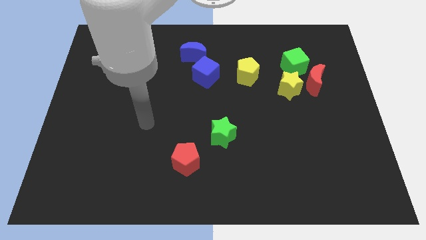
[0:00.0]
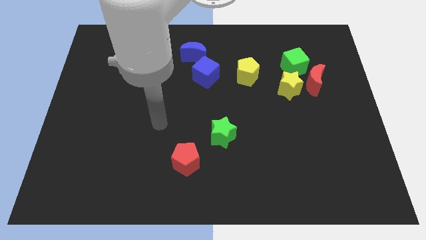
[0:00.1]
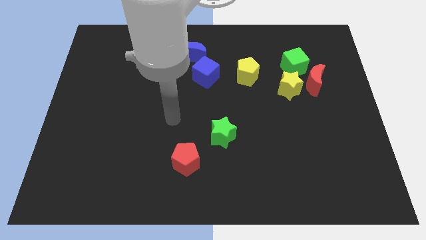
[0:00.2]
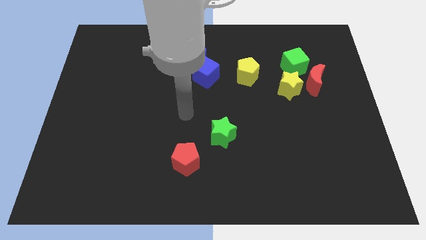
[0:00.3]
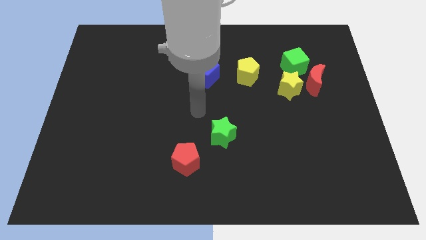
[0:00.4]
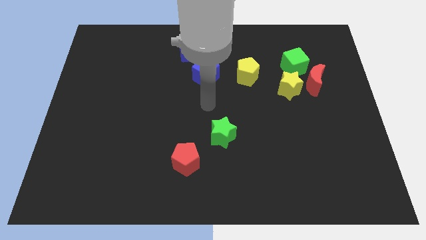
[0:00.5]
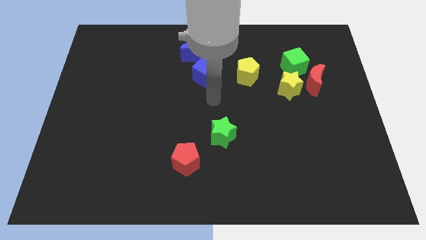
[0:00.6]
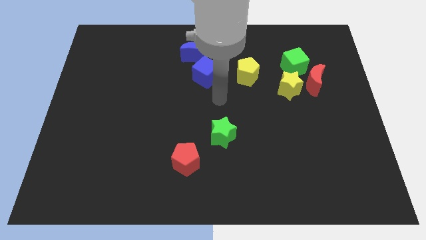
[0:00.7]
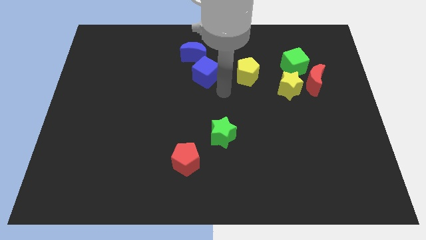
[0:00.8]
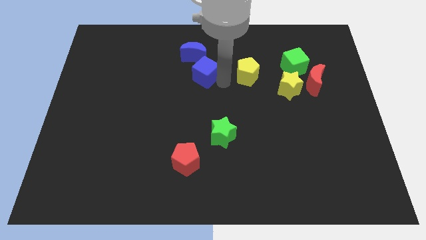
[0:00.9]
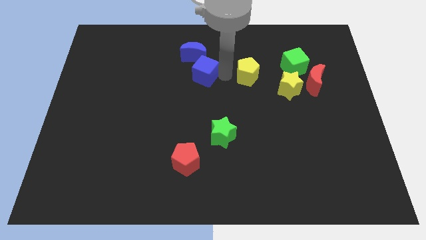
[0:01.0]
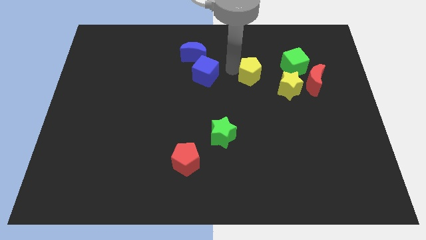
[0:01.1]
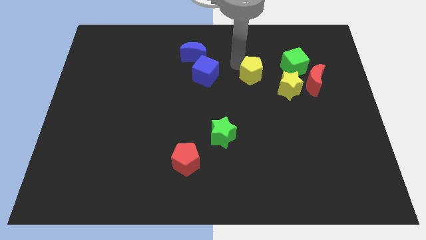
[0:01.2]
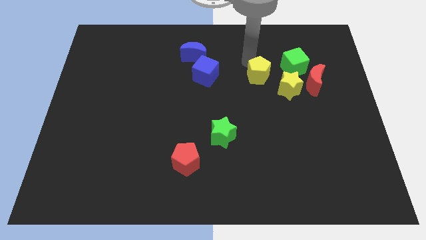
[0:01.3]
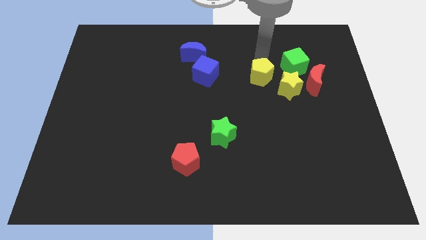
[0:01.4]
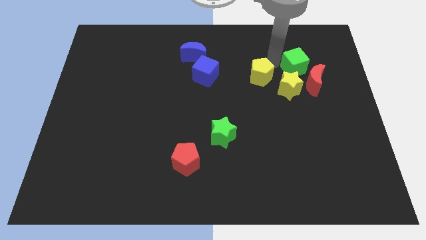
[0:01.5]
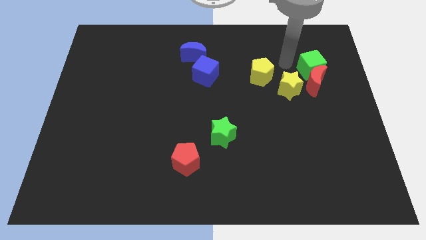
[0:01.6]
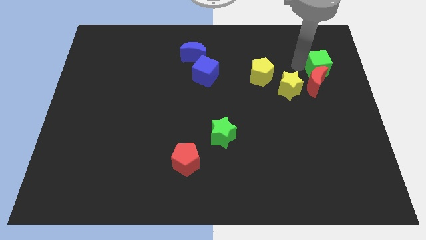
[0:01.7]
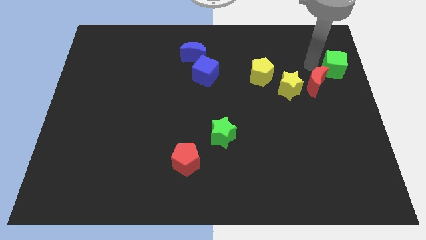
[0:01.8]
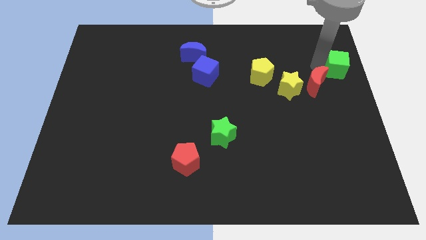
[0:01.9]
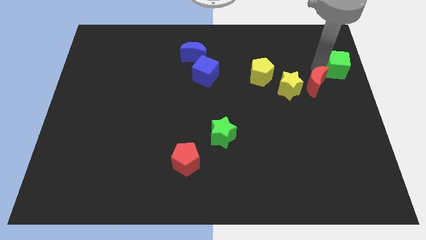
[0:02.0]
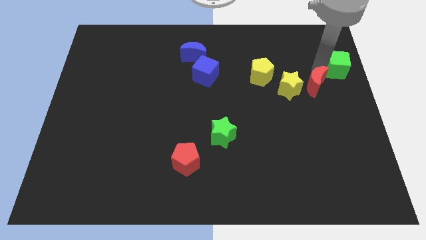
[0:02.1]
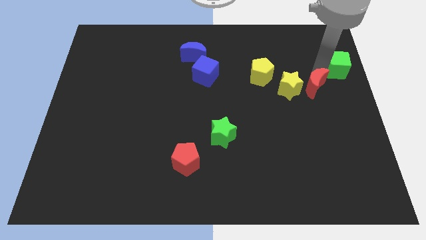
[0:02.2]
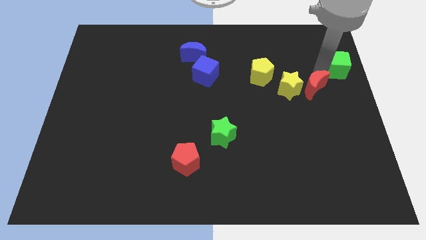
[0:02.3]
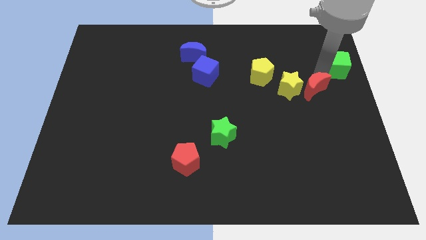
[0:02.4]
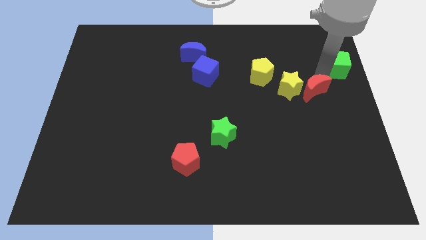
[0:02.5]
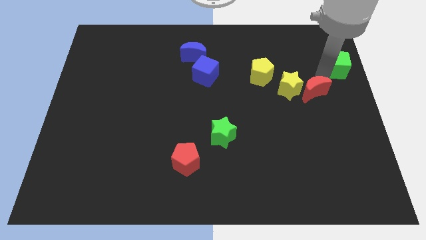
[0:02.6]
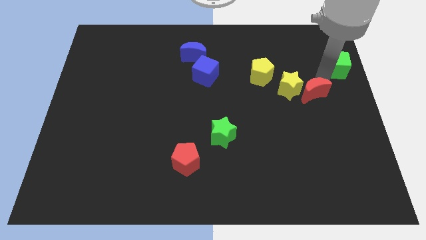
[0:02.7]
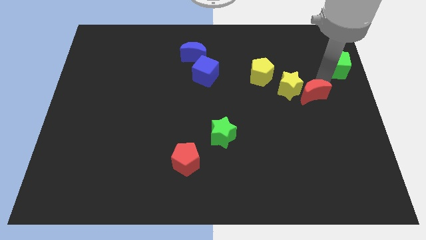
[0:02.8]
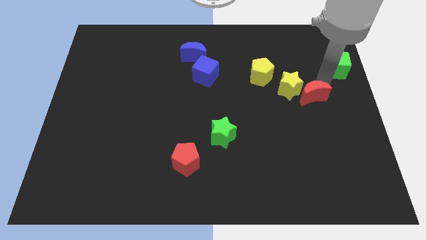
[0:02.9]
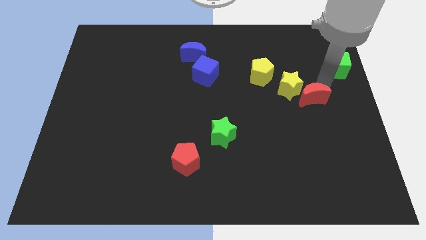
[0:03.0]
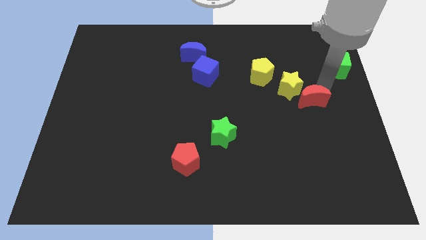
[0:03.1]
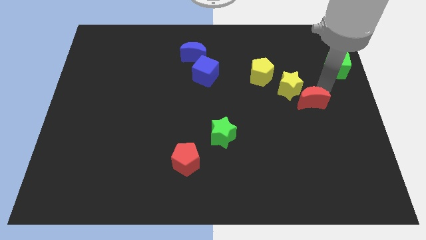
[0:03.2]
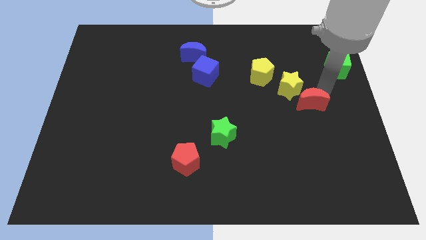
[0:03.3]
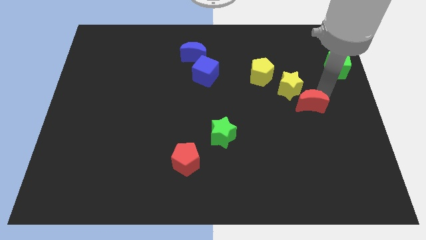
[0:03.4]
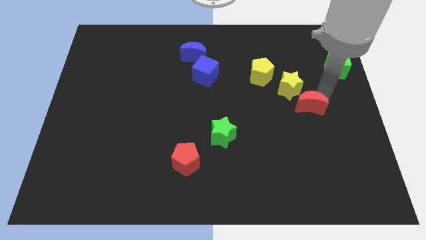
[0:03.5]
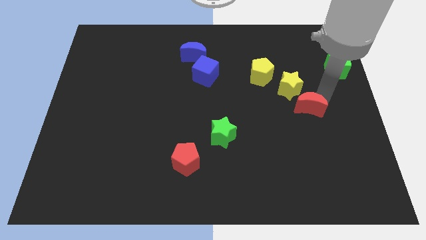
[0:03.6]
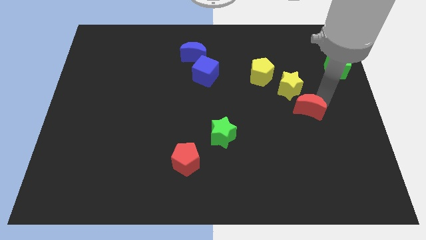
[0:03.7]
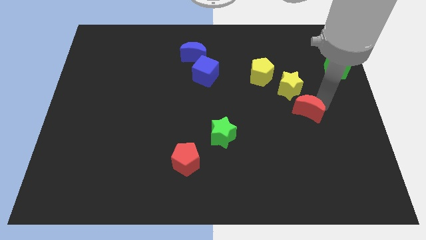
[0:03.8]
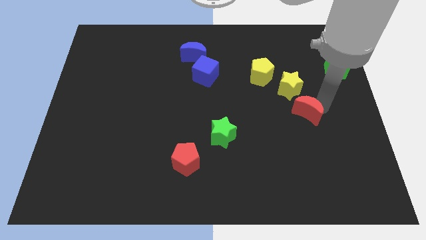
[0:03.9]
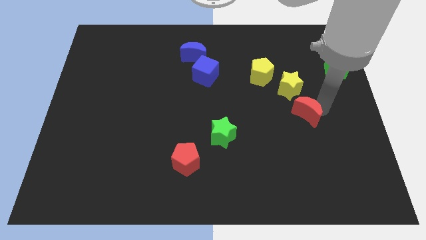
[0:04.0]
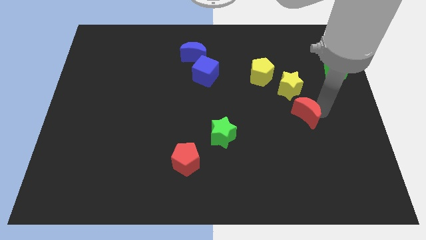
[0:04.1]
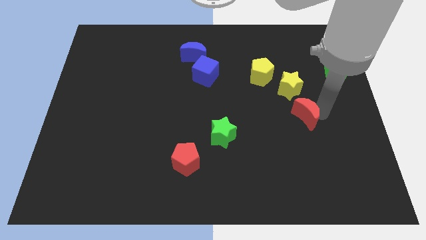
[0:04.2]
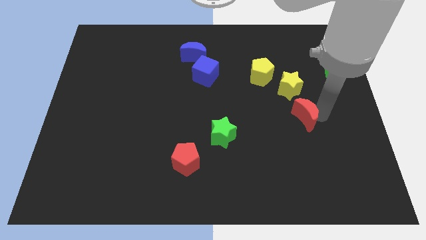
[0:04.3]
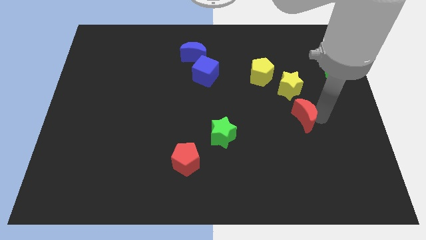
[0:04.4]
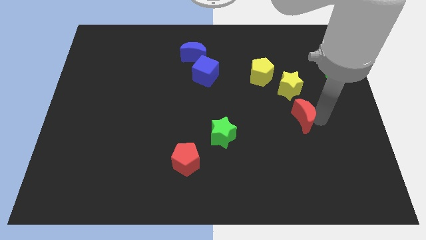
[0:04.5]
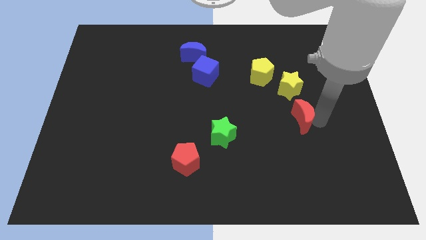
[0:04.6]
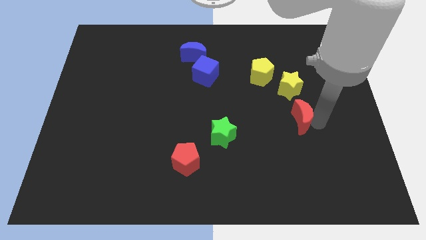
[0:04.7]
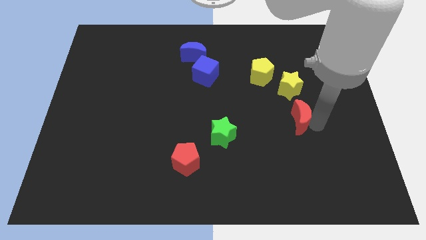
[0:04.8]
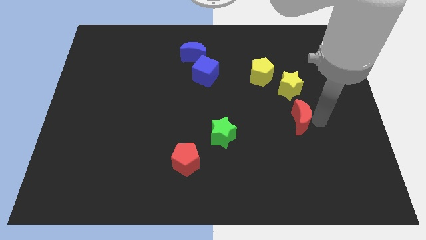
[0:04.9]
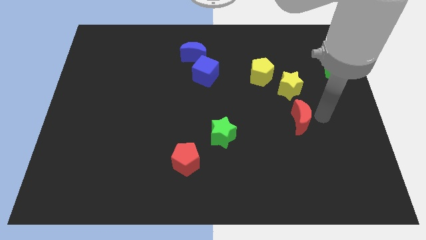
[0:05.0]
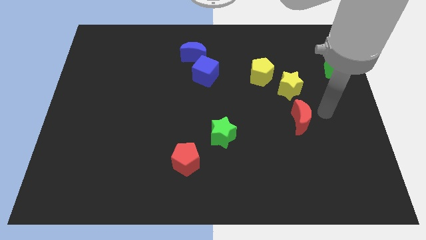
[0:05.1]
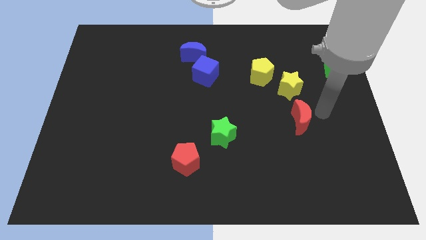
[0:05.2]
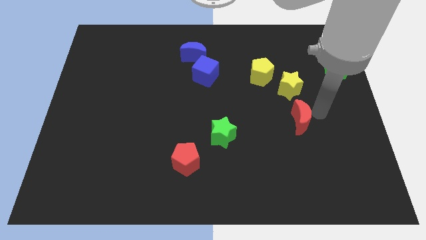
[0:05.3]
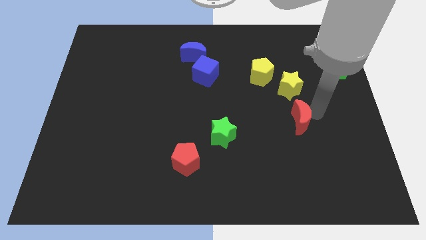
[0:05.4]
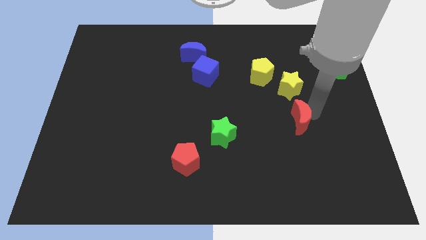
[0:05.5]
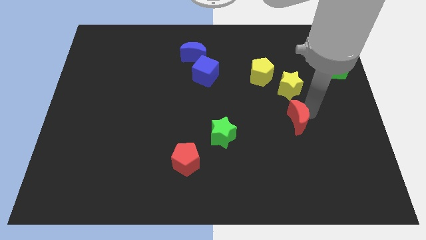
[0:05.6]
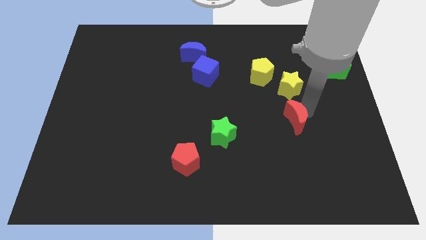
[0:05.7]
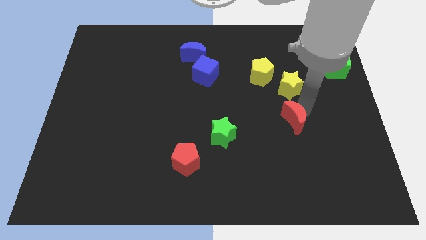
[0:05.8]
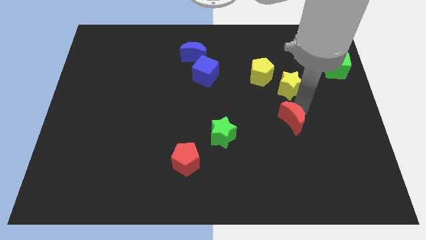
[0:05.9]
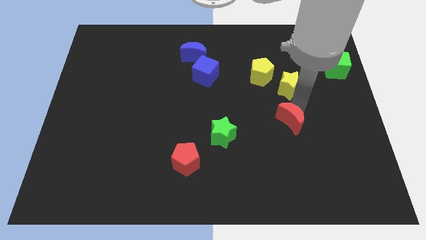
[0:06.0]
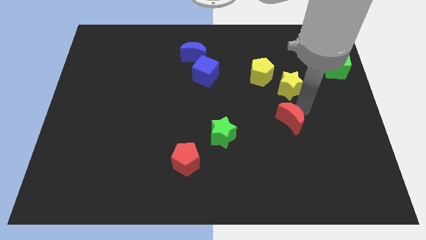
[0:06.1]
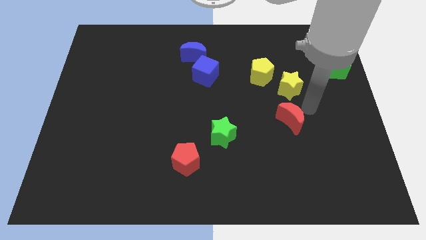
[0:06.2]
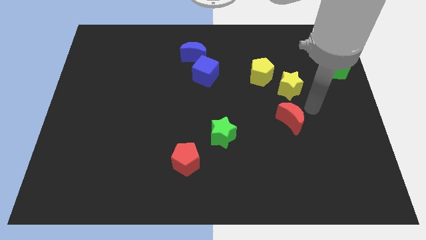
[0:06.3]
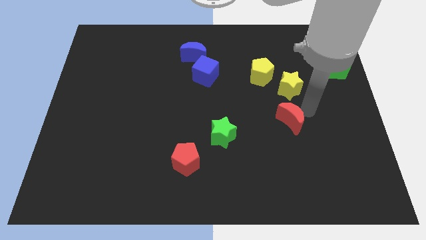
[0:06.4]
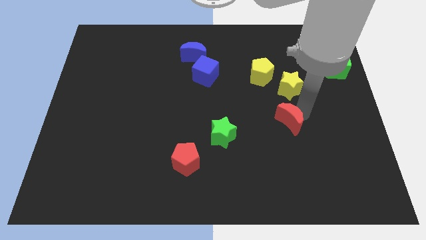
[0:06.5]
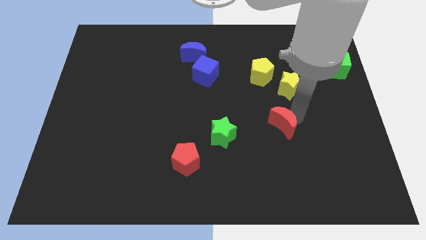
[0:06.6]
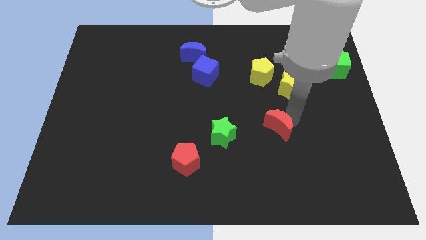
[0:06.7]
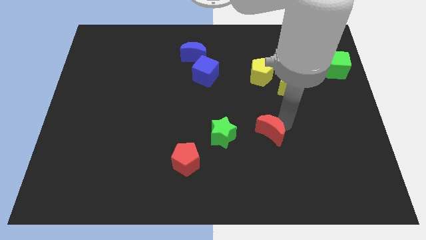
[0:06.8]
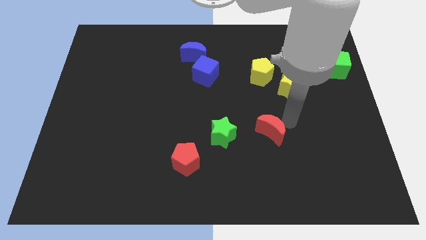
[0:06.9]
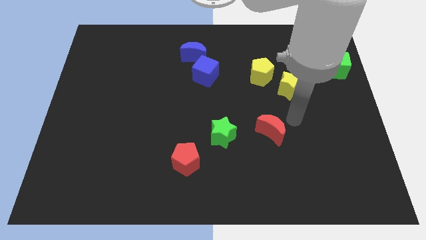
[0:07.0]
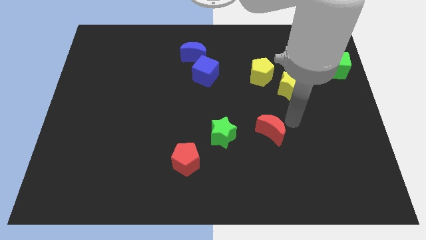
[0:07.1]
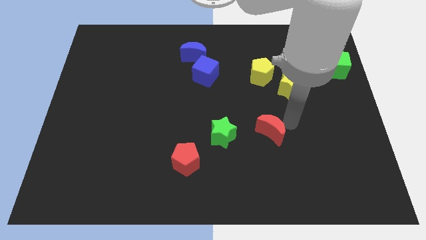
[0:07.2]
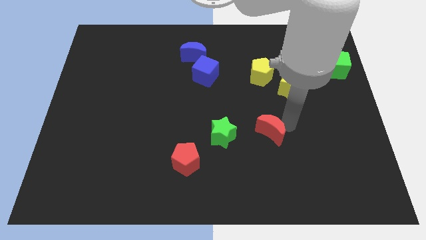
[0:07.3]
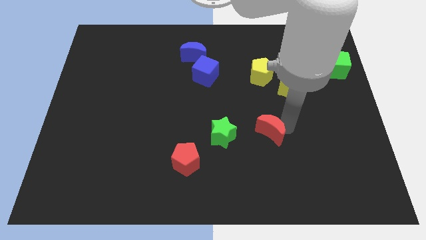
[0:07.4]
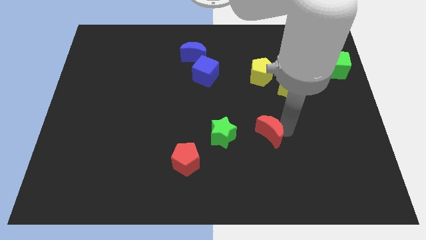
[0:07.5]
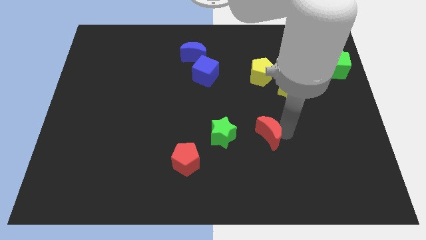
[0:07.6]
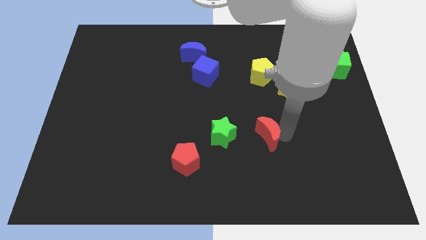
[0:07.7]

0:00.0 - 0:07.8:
move the red moon down and to the left diagonally
